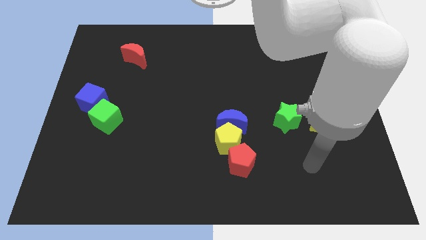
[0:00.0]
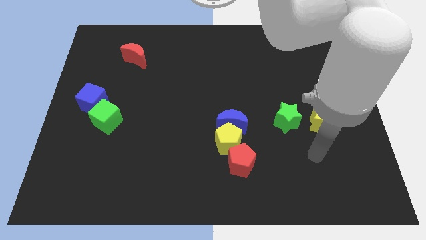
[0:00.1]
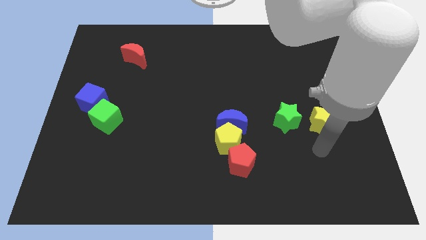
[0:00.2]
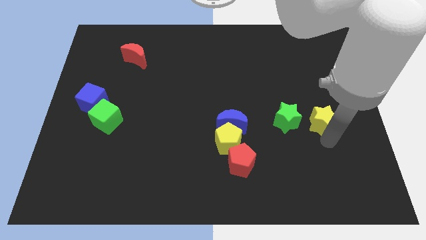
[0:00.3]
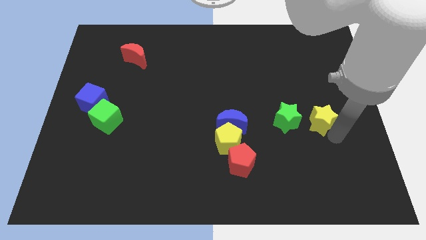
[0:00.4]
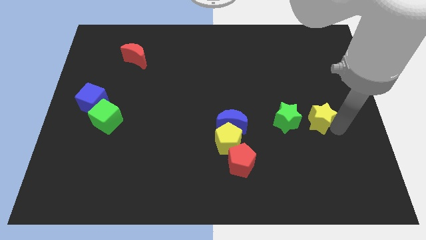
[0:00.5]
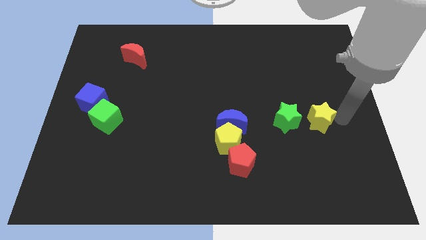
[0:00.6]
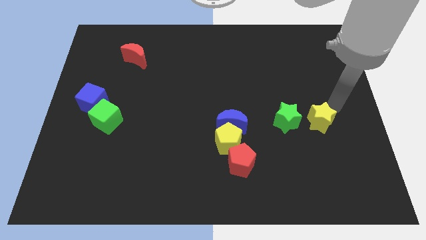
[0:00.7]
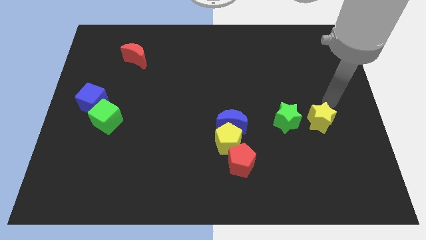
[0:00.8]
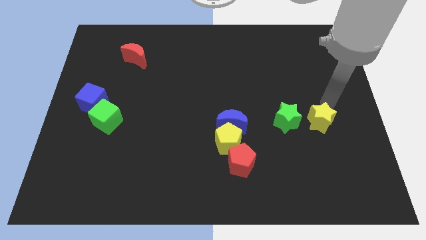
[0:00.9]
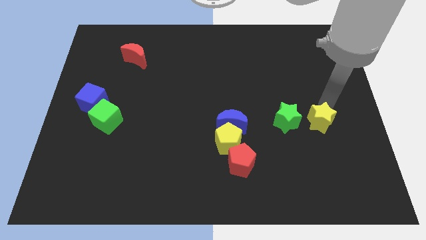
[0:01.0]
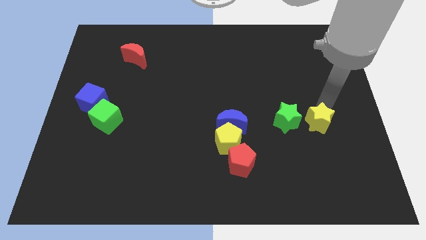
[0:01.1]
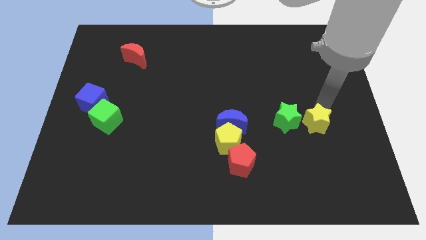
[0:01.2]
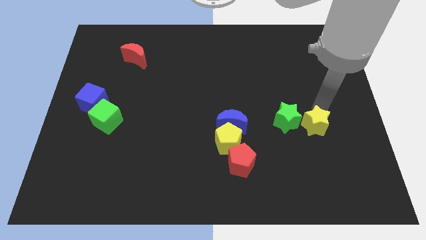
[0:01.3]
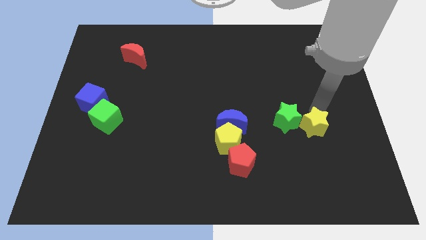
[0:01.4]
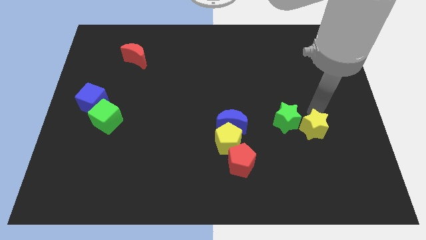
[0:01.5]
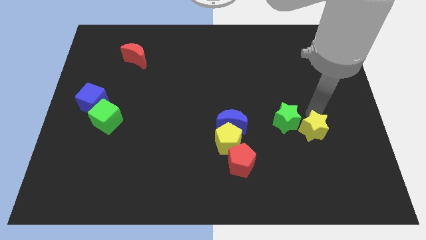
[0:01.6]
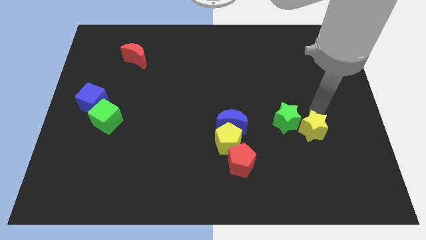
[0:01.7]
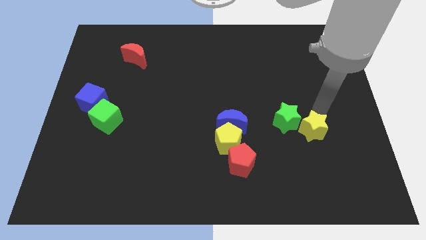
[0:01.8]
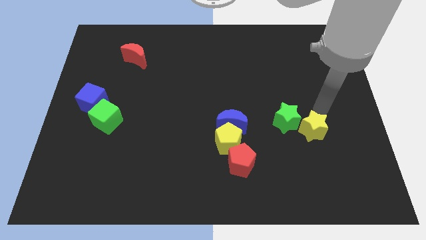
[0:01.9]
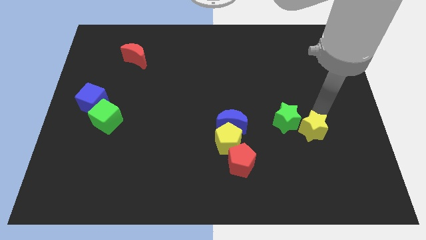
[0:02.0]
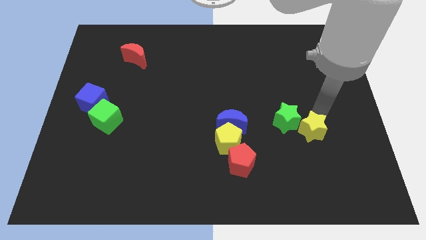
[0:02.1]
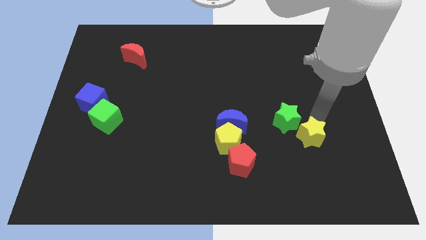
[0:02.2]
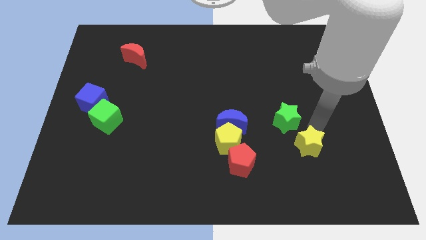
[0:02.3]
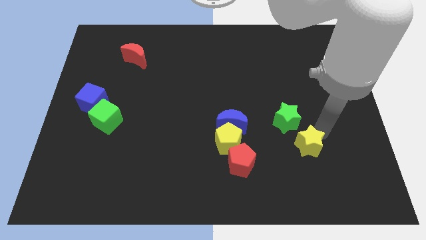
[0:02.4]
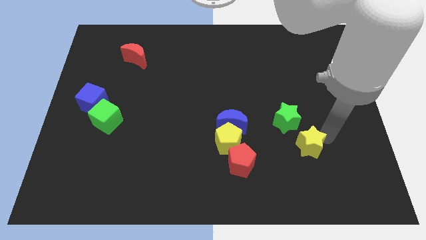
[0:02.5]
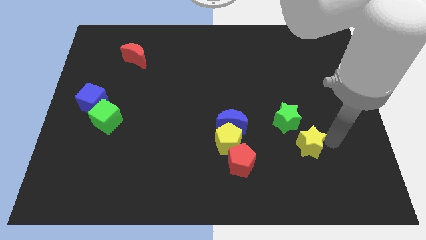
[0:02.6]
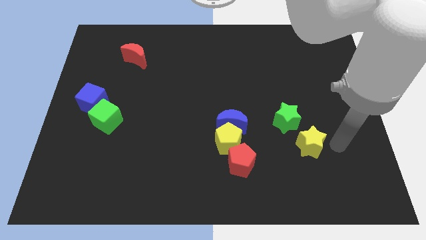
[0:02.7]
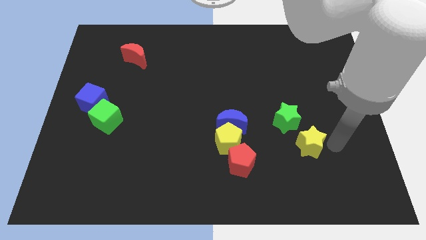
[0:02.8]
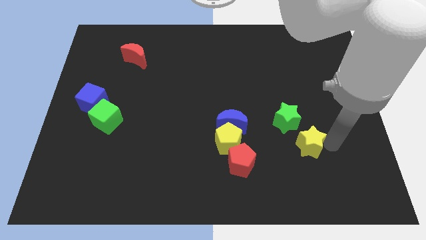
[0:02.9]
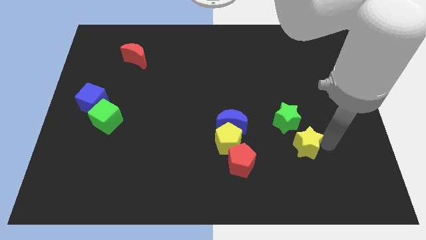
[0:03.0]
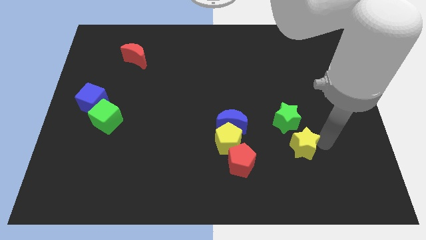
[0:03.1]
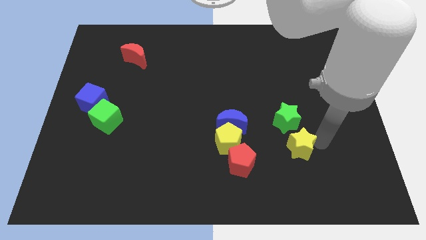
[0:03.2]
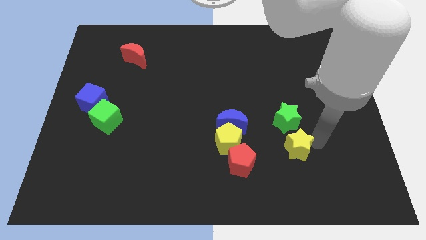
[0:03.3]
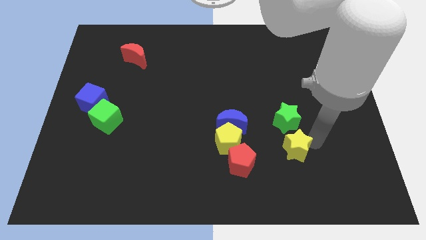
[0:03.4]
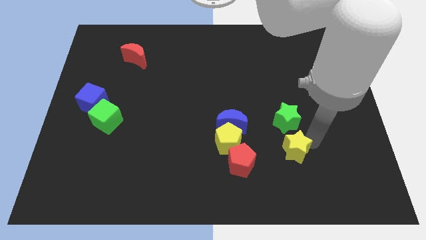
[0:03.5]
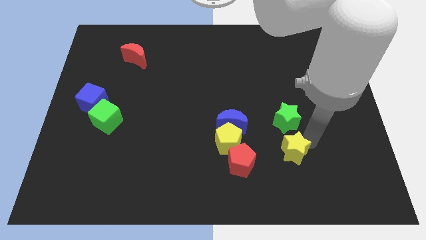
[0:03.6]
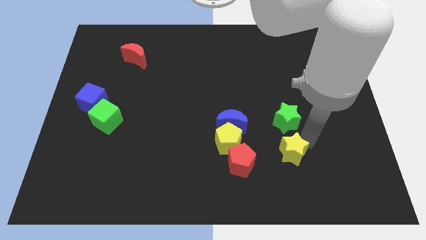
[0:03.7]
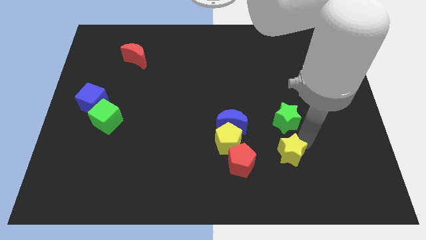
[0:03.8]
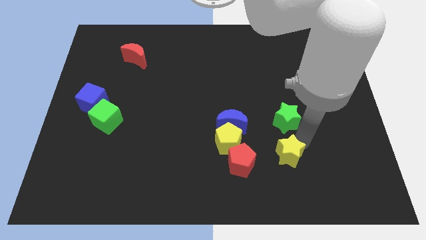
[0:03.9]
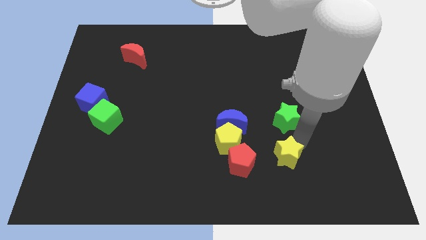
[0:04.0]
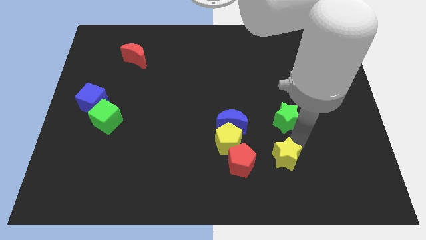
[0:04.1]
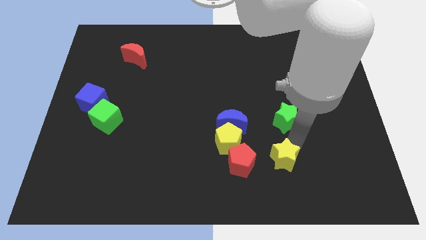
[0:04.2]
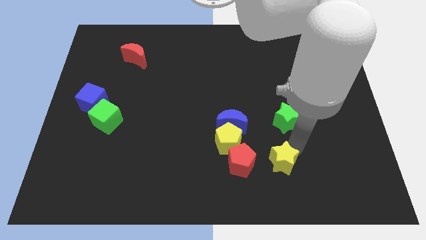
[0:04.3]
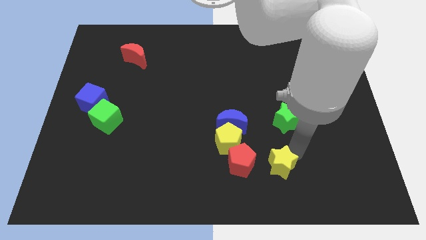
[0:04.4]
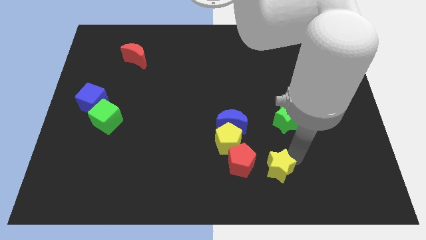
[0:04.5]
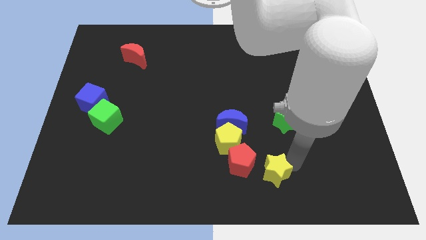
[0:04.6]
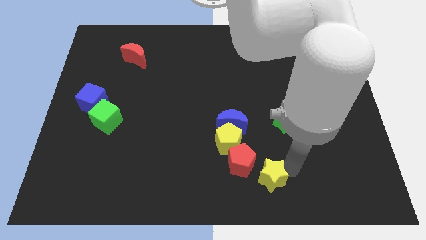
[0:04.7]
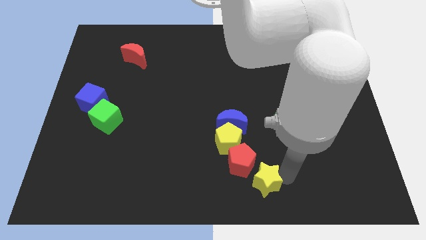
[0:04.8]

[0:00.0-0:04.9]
move the yellow star next to the red pentagon

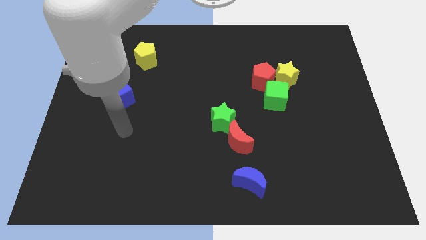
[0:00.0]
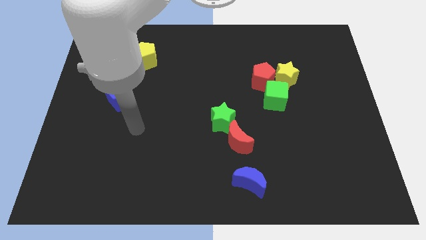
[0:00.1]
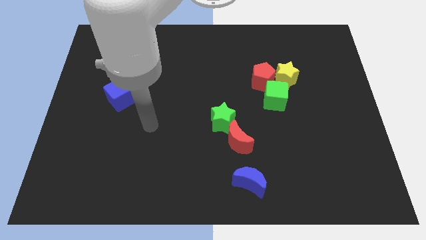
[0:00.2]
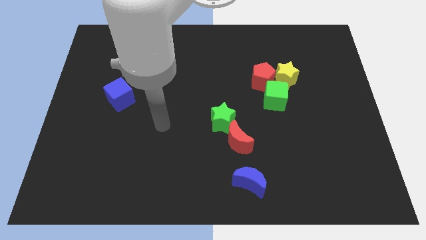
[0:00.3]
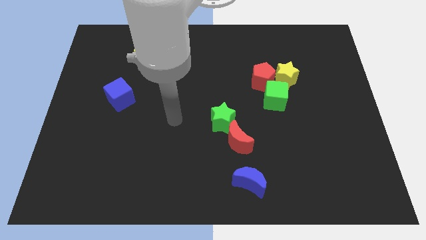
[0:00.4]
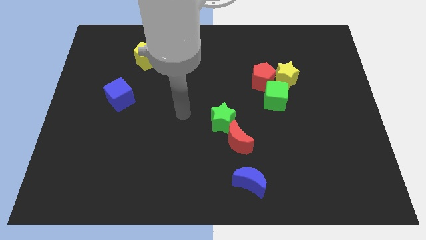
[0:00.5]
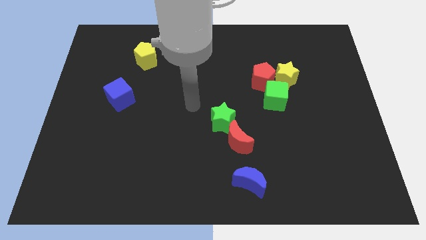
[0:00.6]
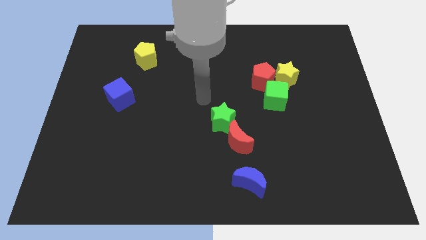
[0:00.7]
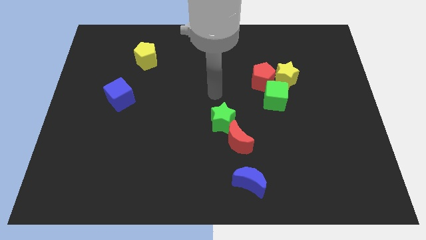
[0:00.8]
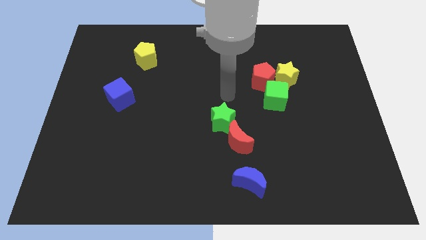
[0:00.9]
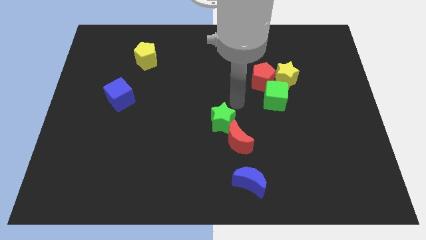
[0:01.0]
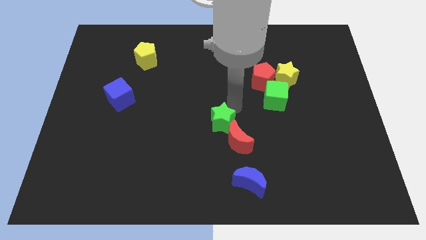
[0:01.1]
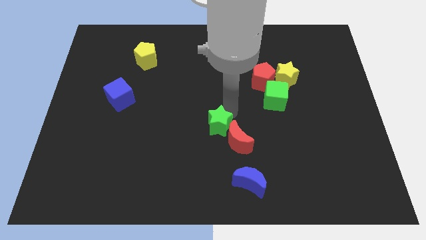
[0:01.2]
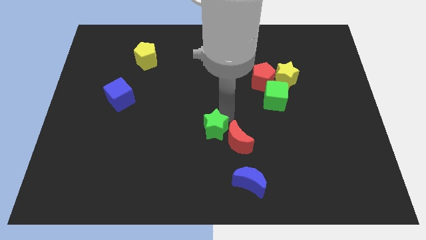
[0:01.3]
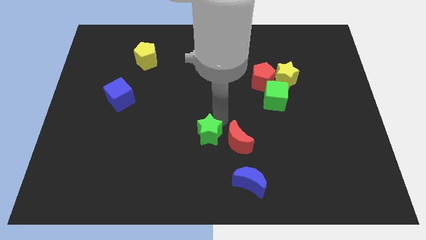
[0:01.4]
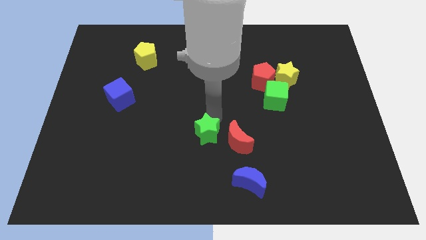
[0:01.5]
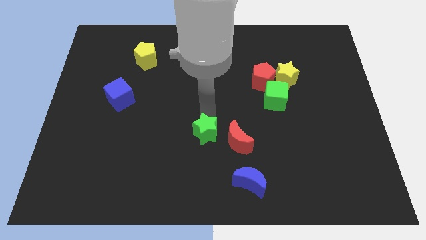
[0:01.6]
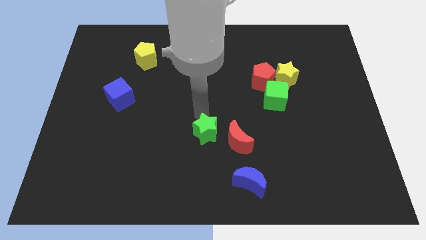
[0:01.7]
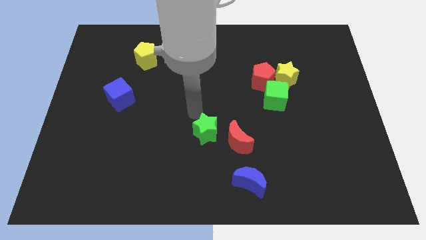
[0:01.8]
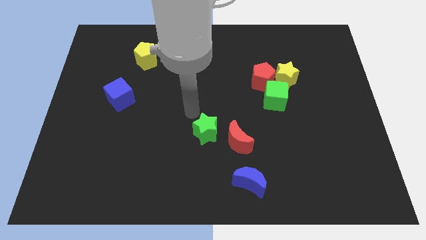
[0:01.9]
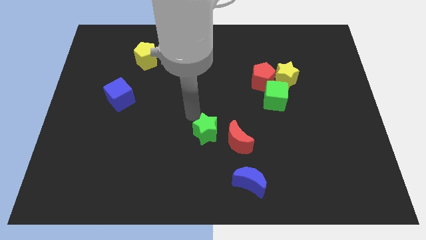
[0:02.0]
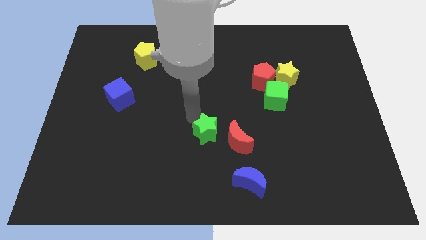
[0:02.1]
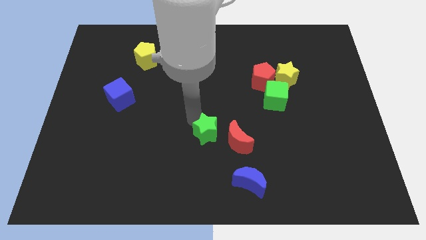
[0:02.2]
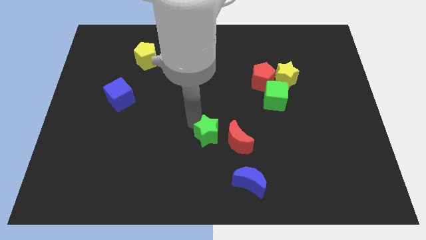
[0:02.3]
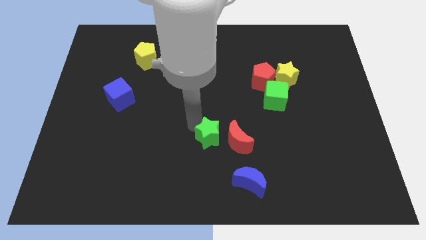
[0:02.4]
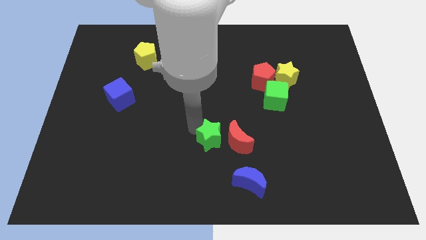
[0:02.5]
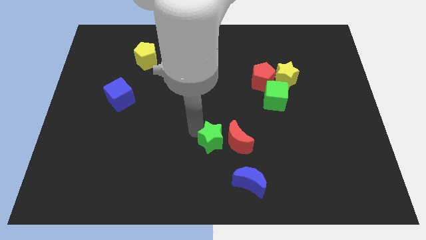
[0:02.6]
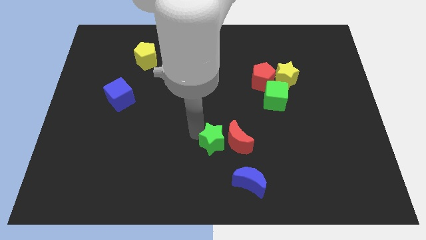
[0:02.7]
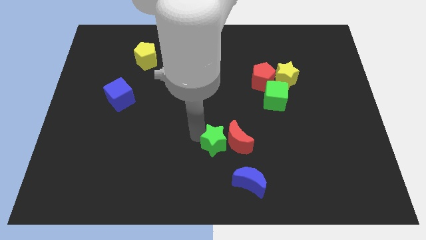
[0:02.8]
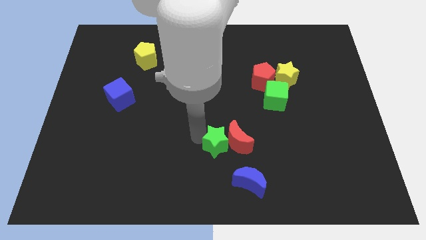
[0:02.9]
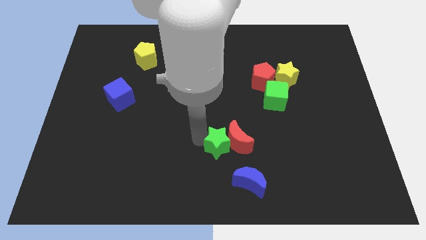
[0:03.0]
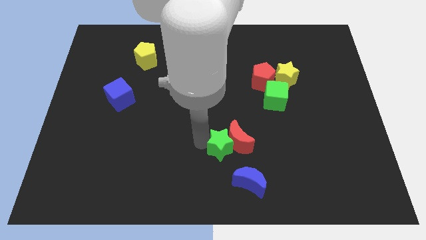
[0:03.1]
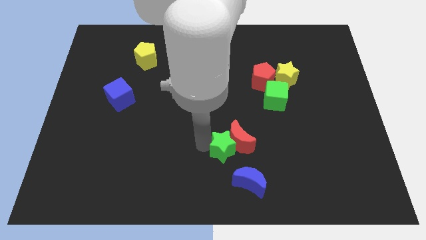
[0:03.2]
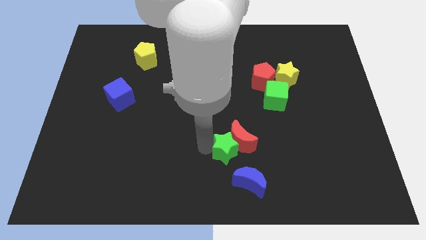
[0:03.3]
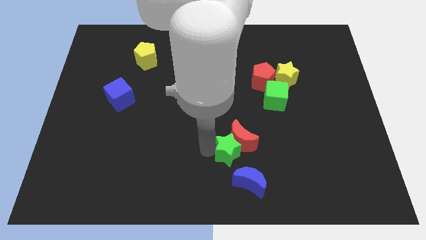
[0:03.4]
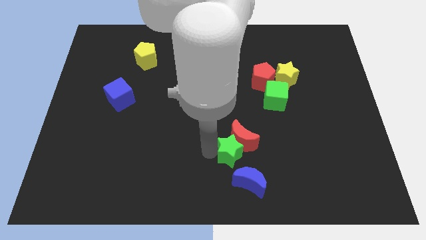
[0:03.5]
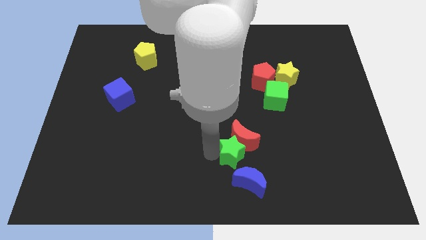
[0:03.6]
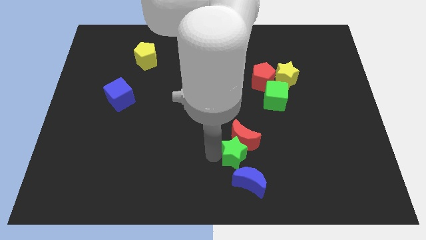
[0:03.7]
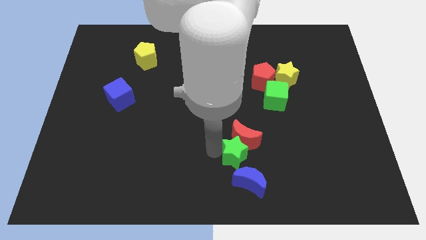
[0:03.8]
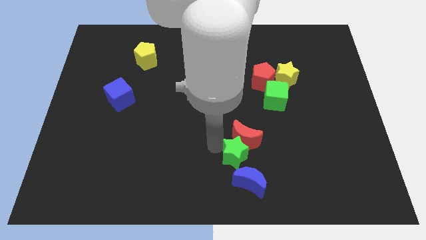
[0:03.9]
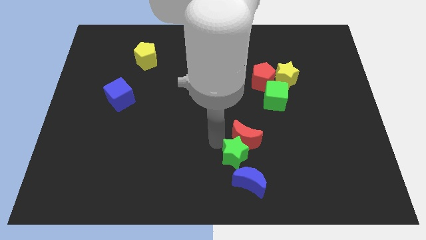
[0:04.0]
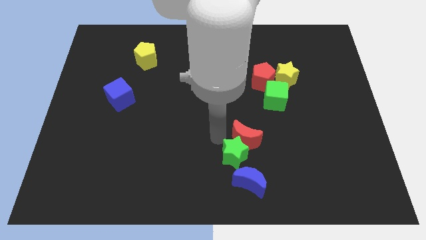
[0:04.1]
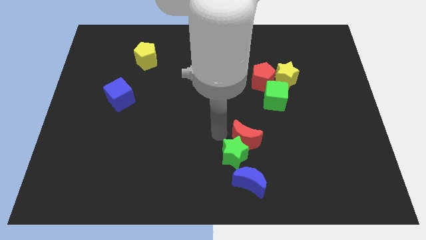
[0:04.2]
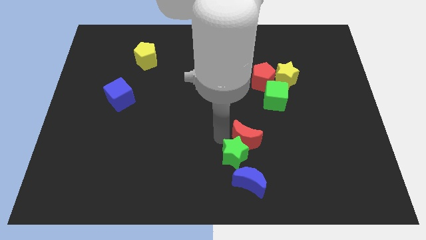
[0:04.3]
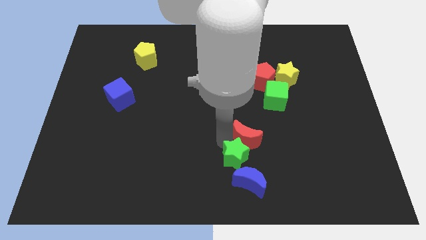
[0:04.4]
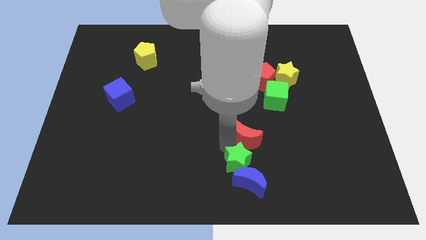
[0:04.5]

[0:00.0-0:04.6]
push the green star towards the blue moon
